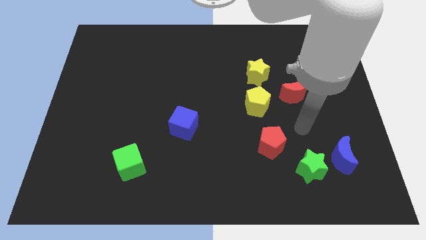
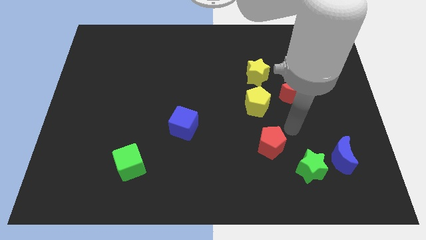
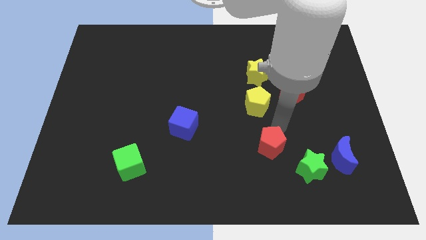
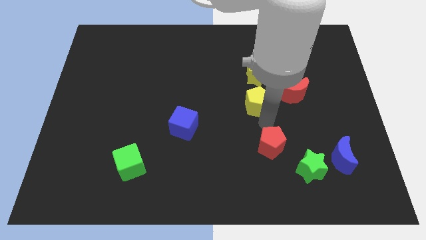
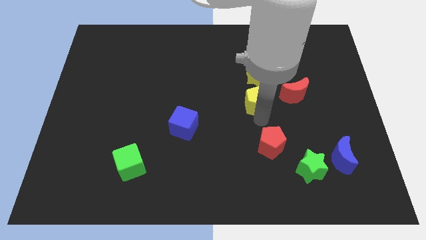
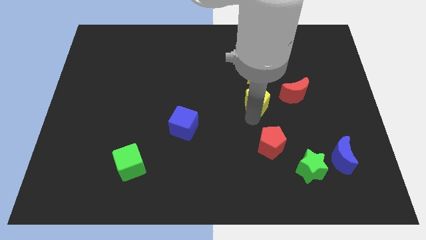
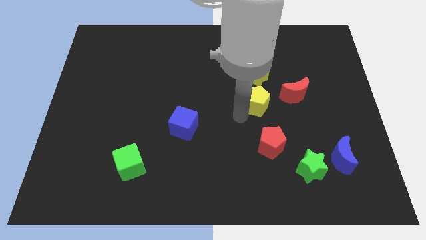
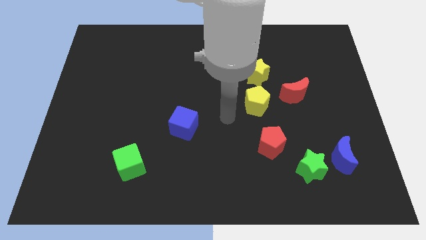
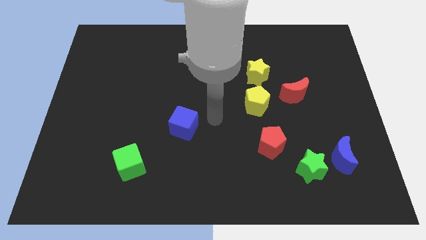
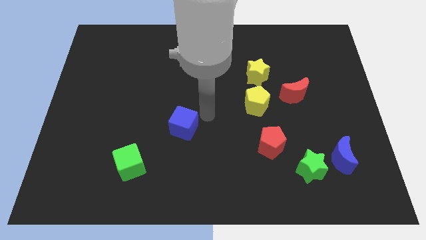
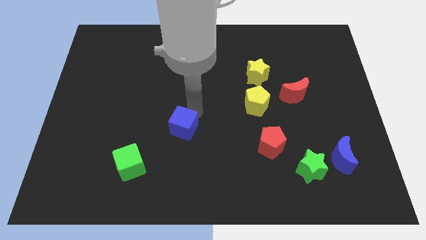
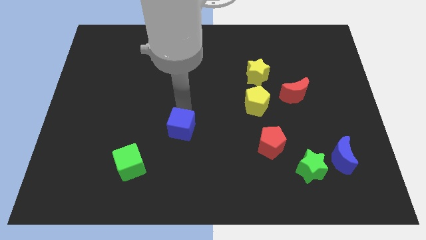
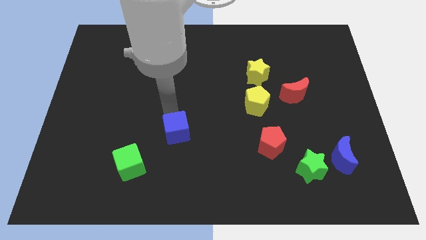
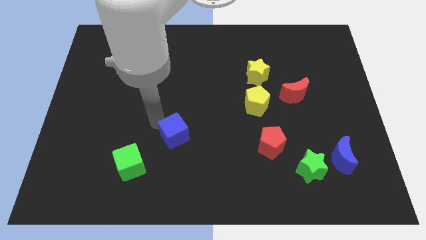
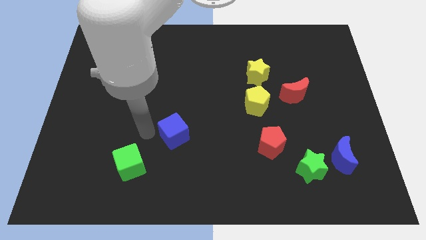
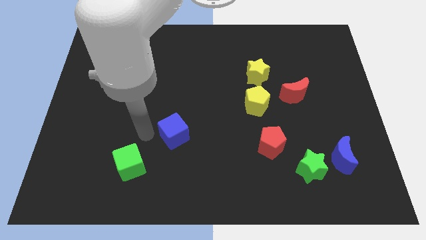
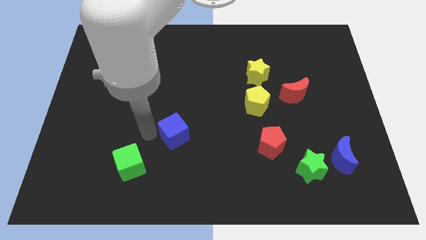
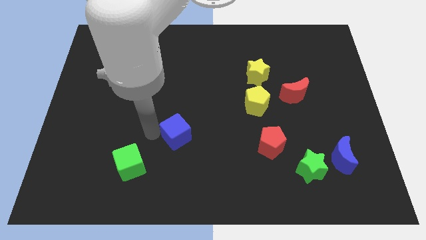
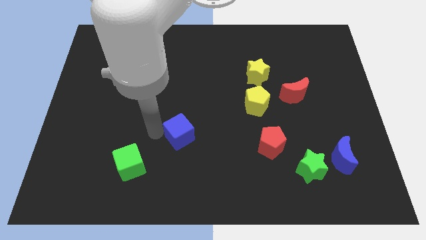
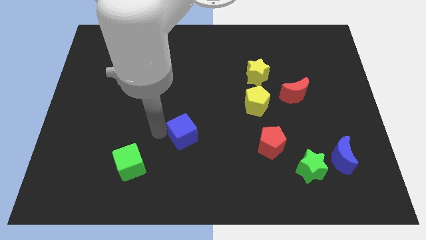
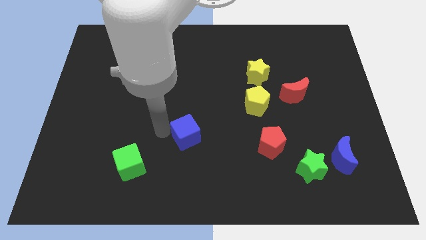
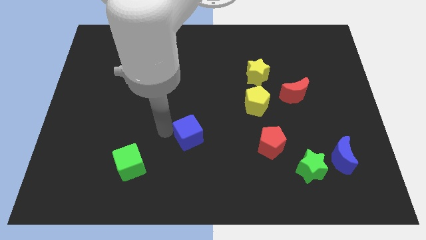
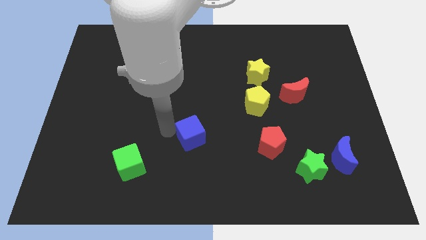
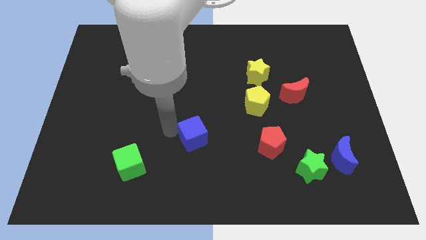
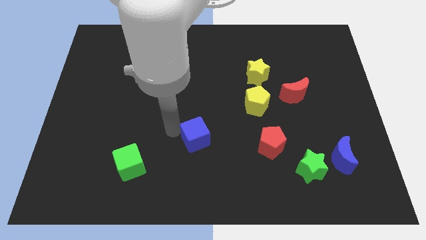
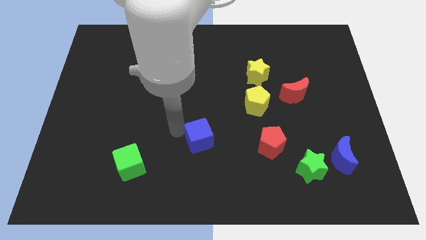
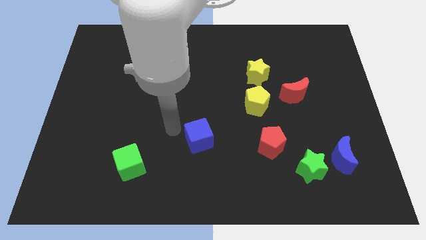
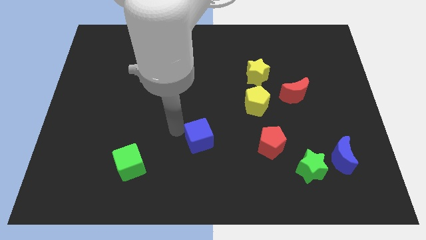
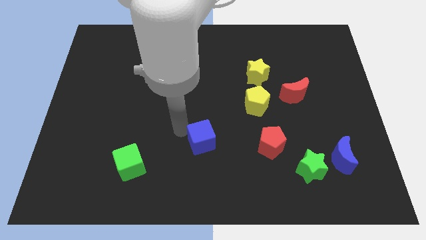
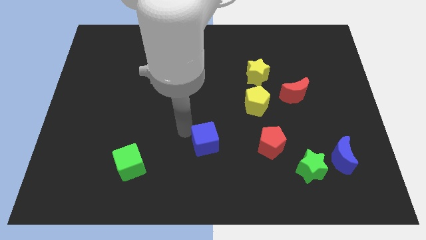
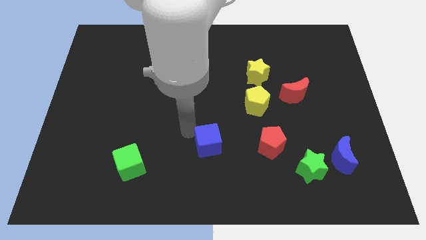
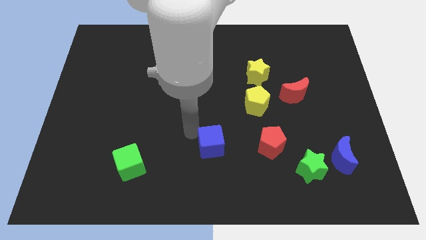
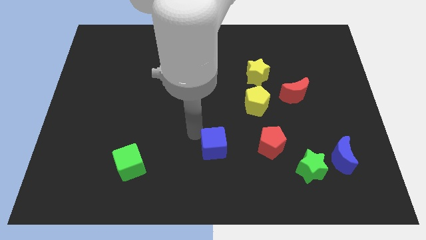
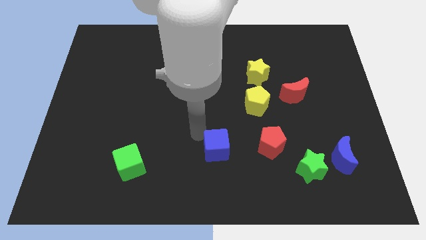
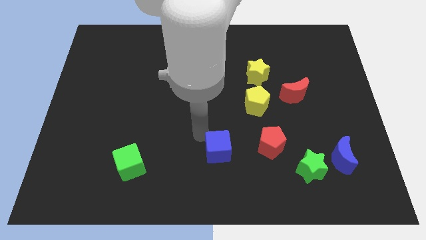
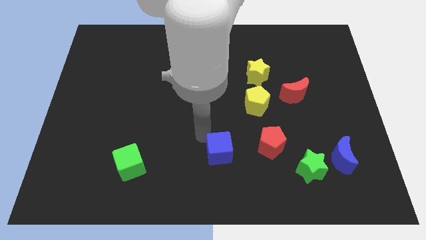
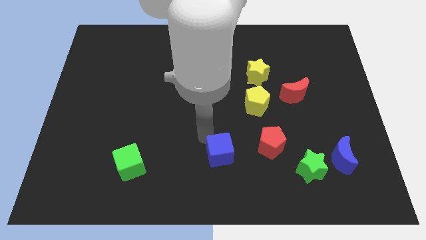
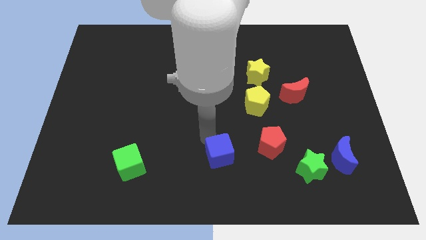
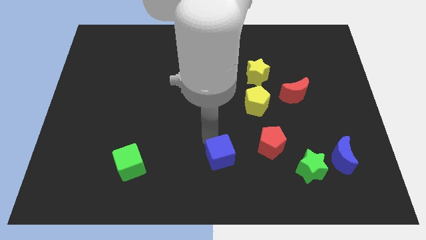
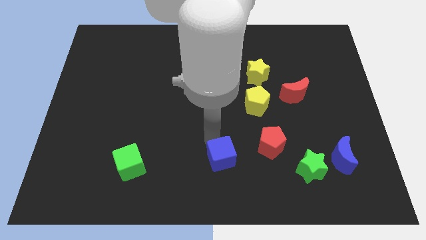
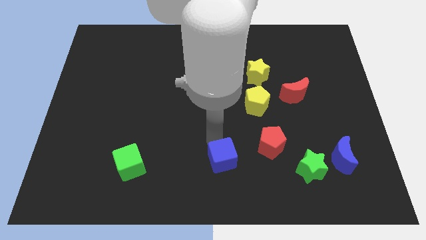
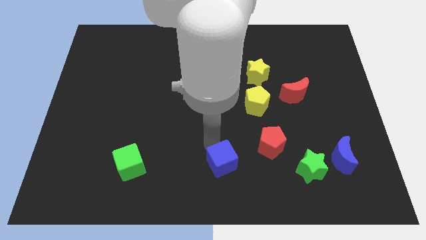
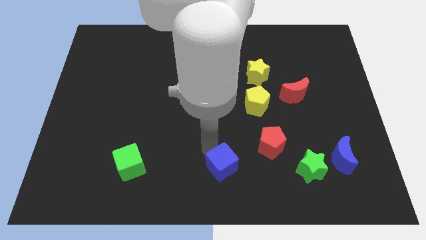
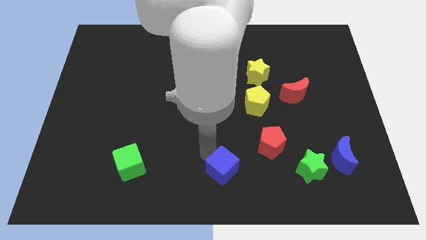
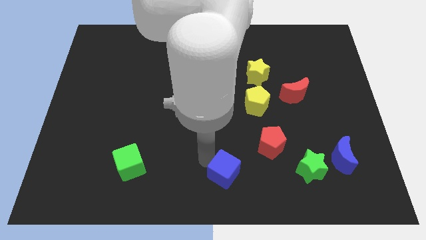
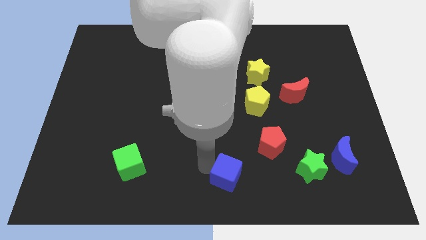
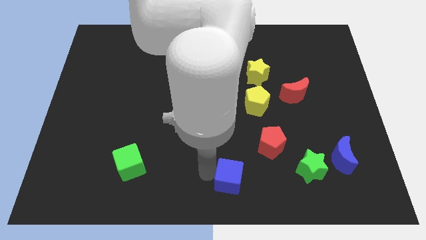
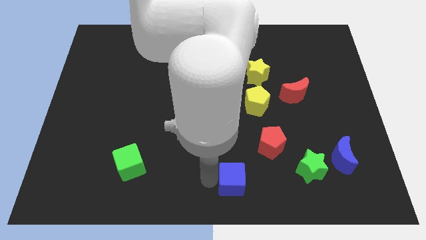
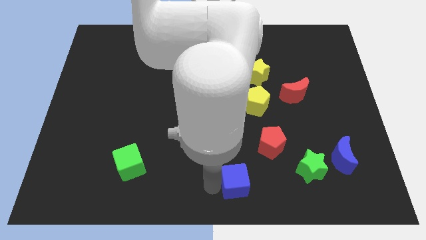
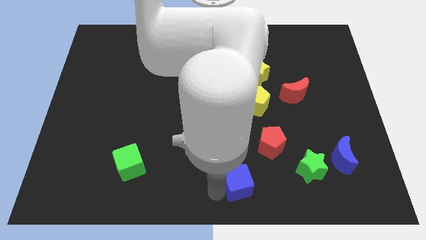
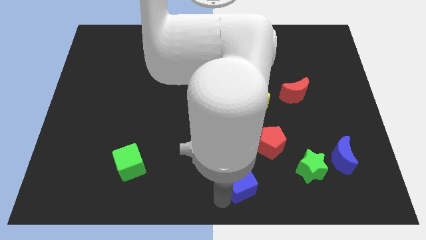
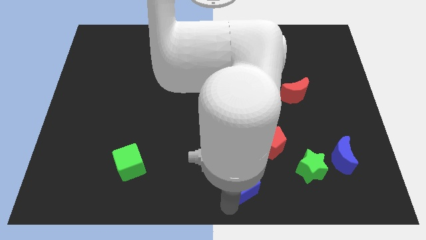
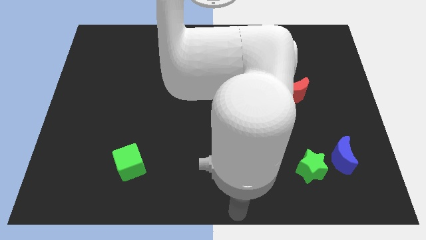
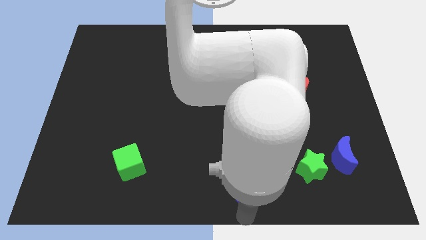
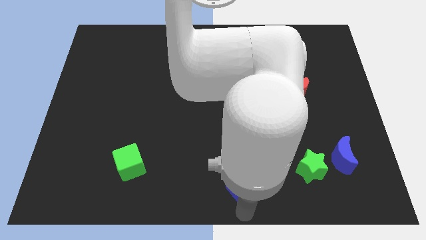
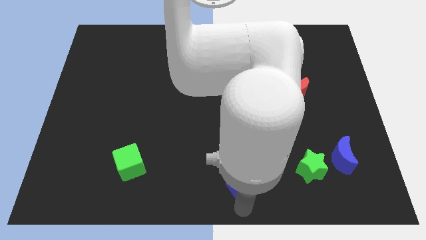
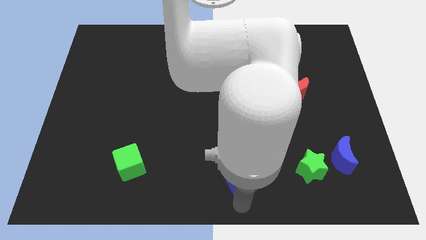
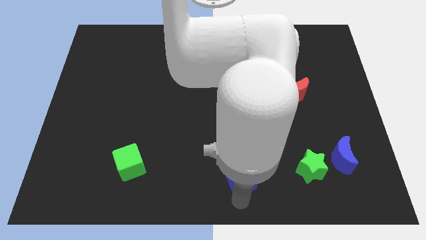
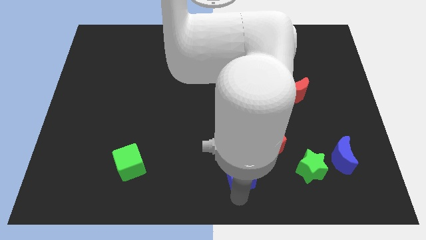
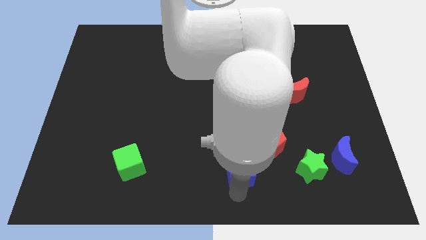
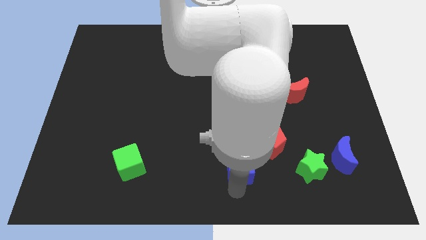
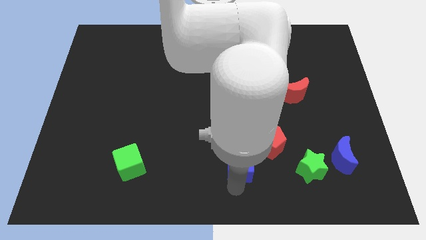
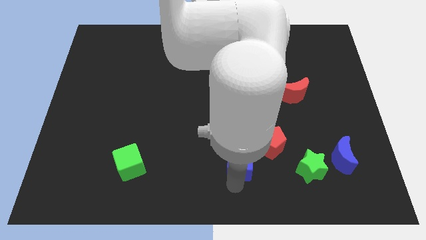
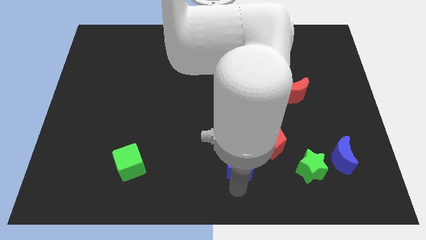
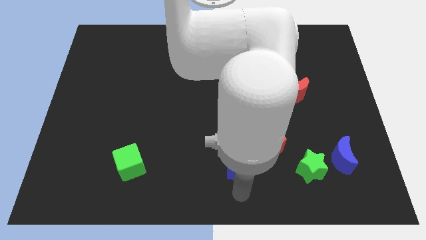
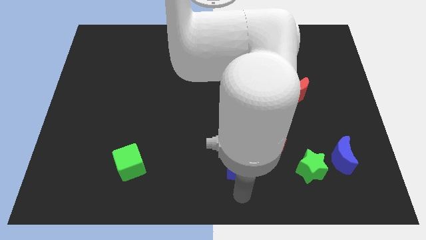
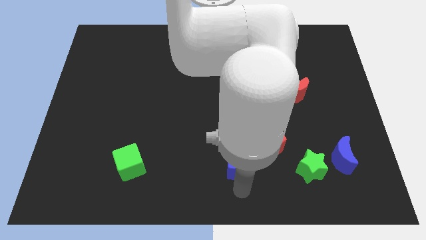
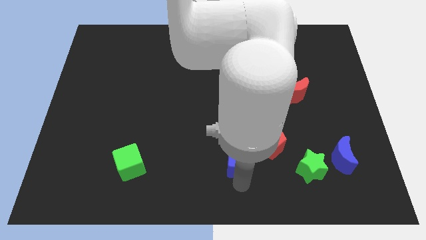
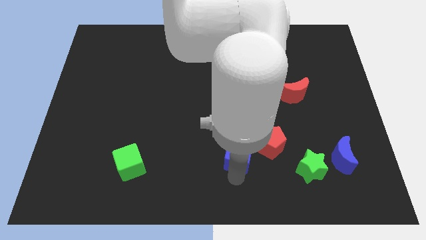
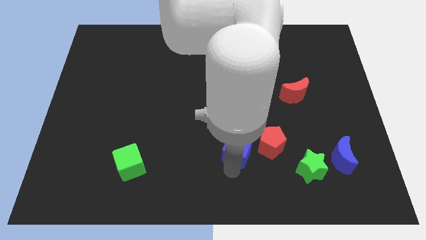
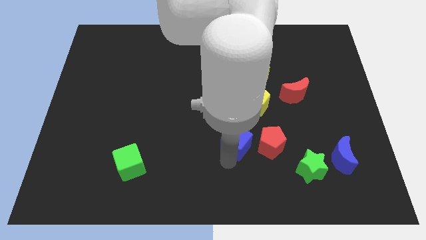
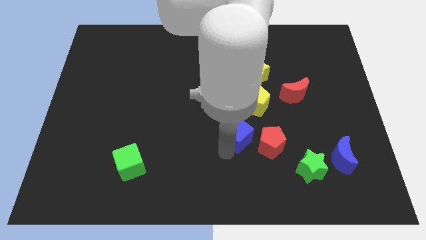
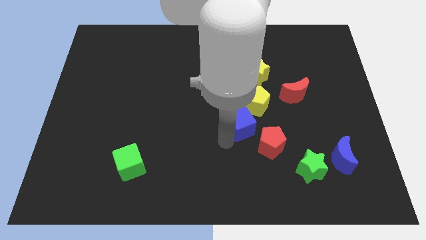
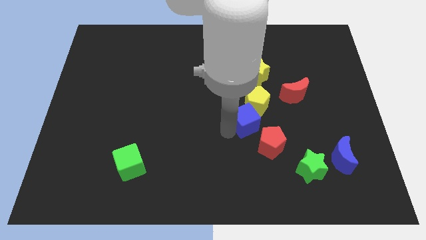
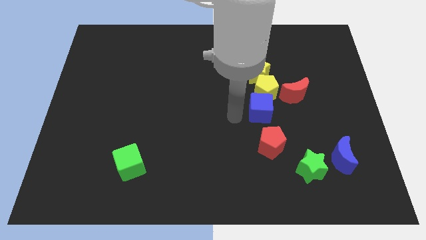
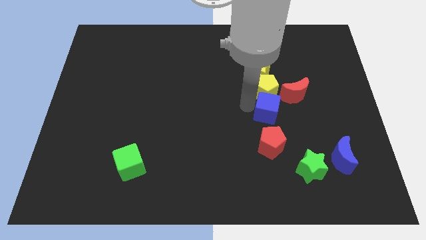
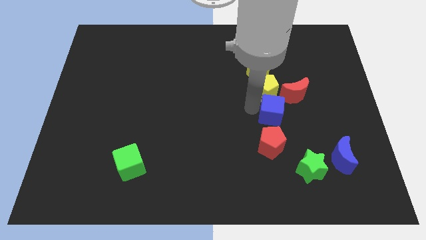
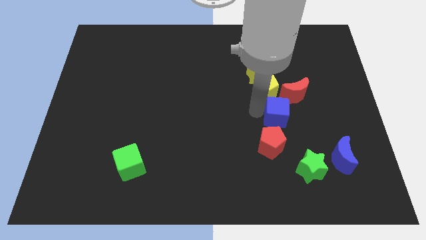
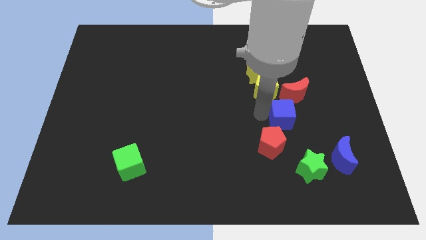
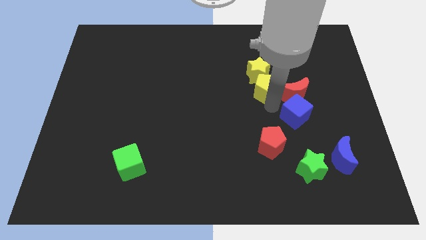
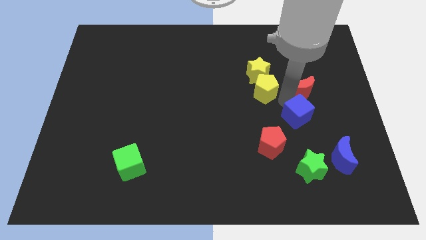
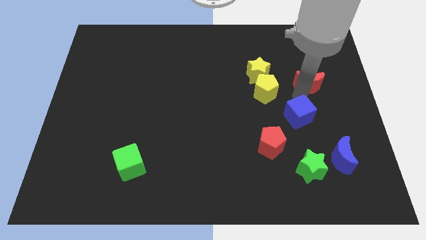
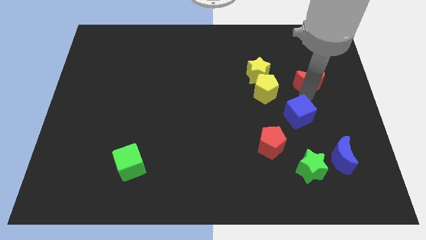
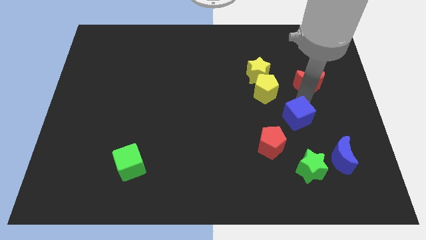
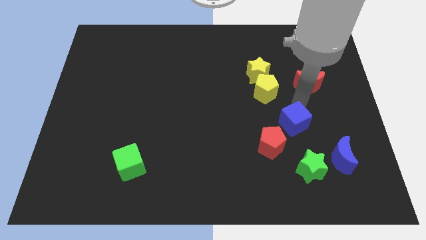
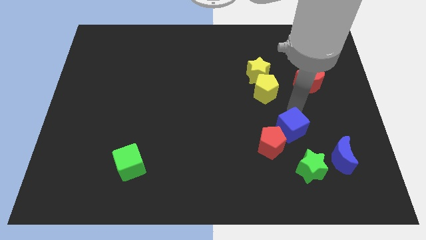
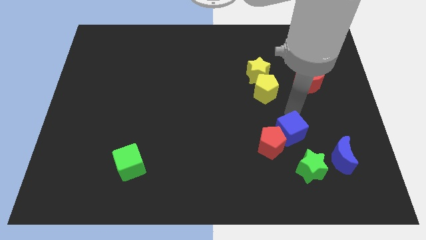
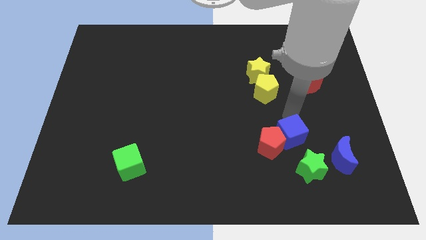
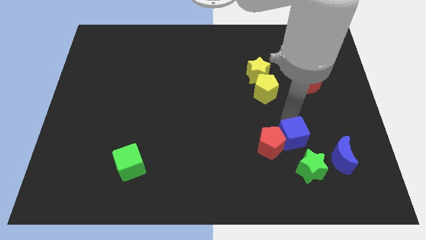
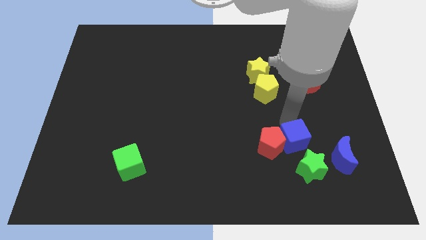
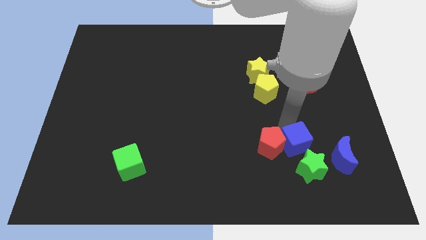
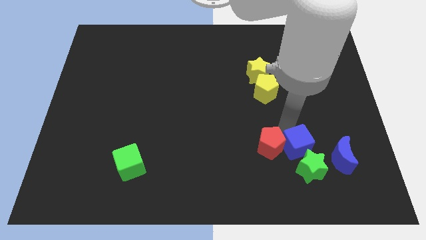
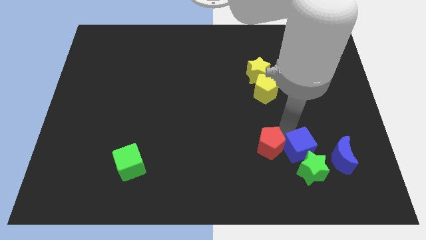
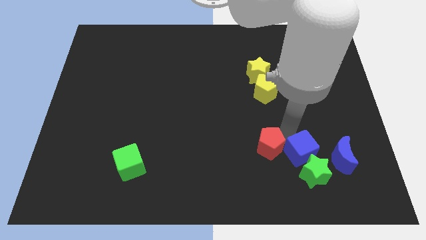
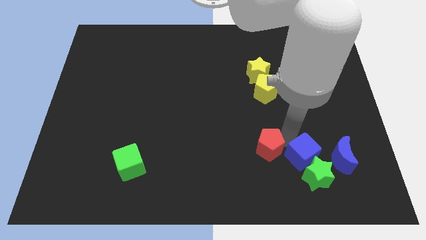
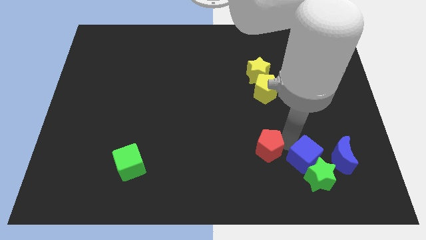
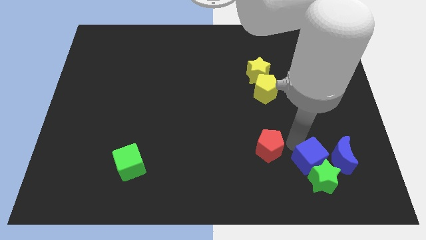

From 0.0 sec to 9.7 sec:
push the blue cube to the bottom left of the blue moon
